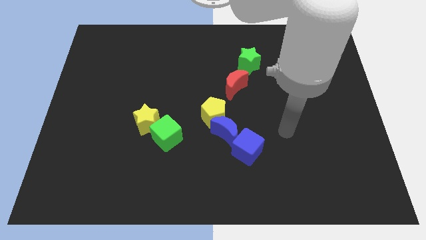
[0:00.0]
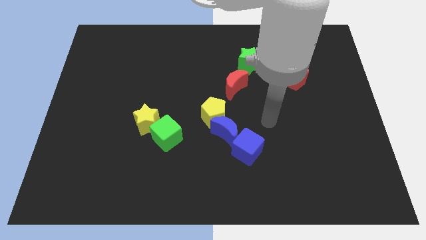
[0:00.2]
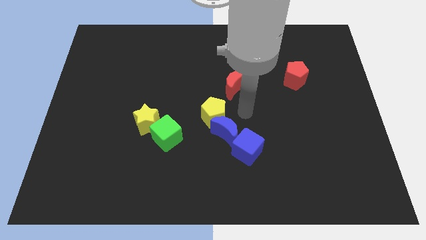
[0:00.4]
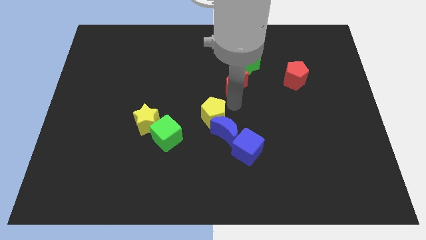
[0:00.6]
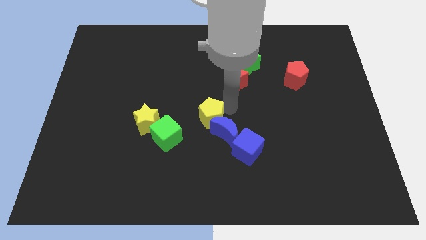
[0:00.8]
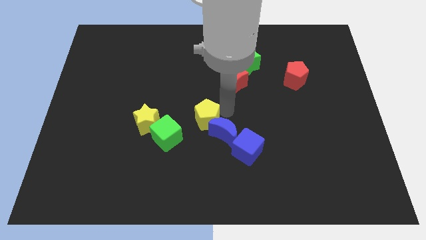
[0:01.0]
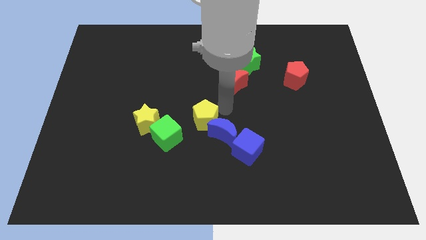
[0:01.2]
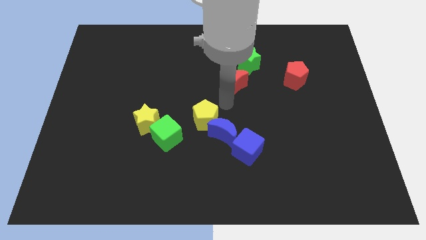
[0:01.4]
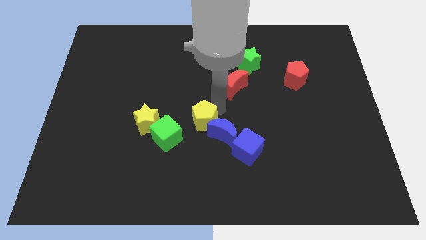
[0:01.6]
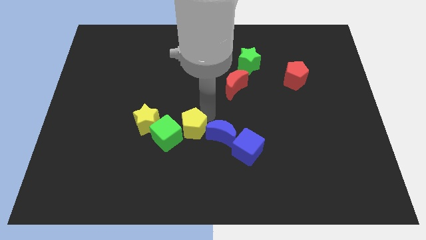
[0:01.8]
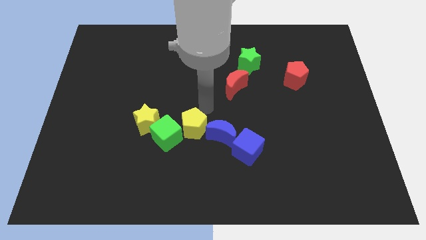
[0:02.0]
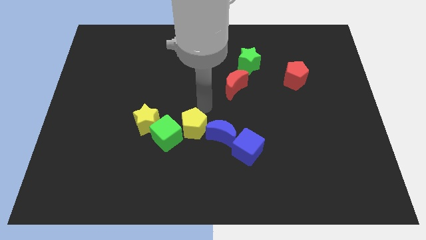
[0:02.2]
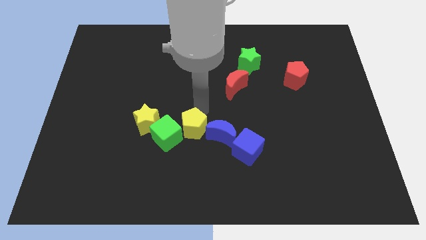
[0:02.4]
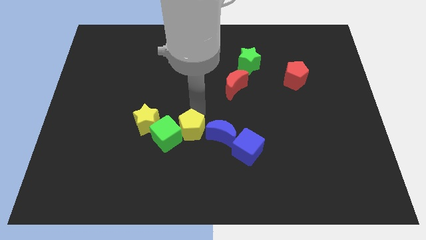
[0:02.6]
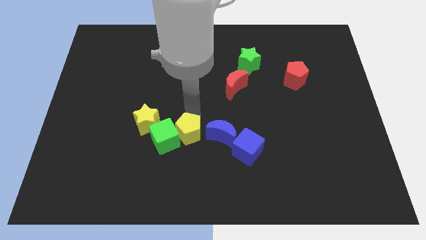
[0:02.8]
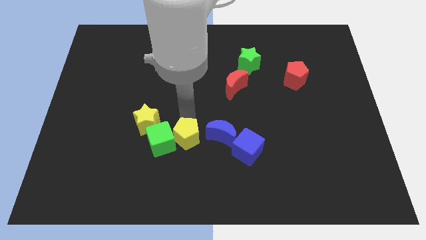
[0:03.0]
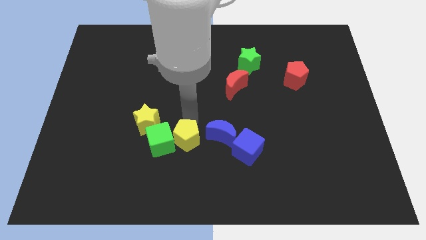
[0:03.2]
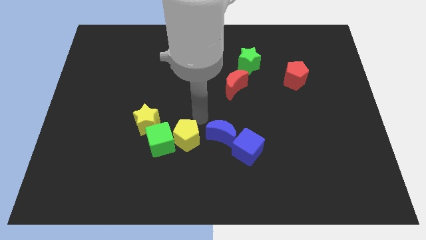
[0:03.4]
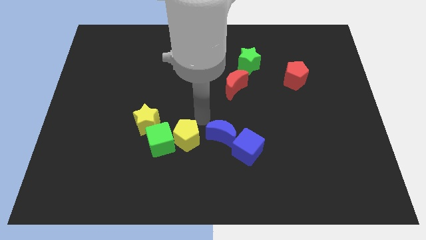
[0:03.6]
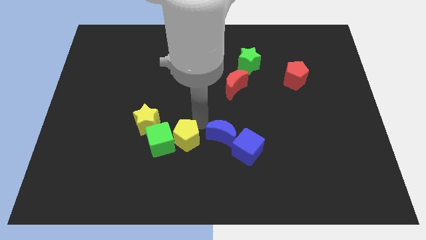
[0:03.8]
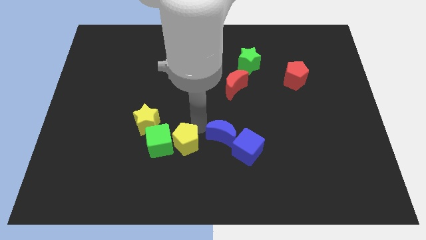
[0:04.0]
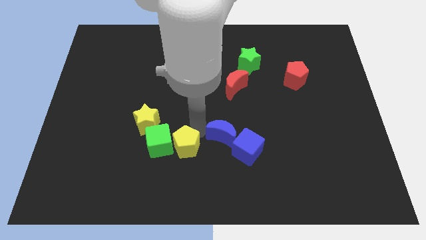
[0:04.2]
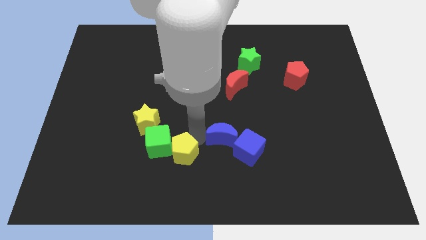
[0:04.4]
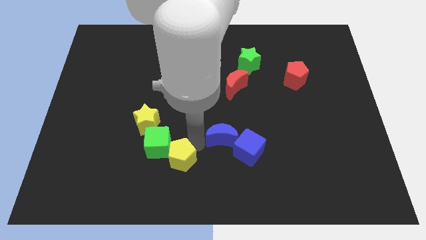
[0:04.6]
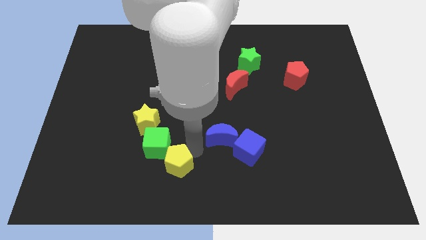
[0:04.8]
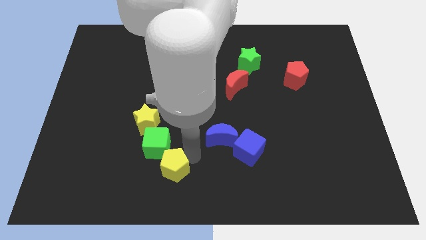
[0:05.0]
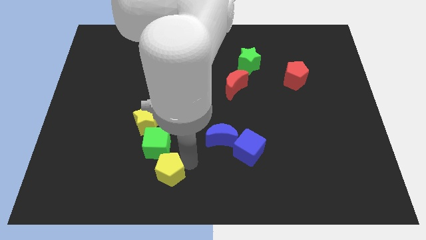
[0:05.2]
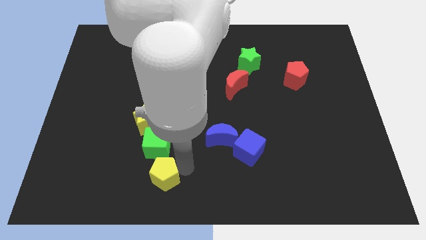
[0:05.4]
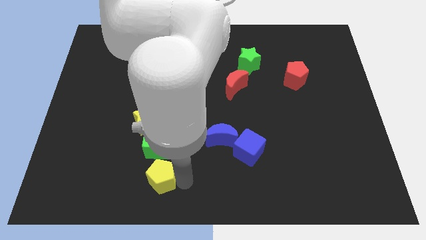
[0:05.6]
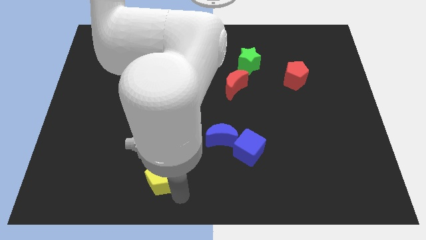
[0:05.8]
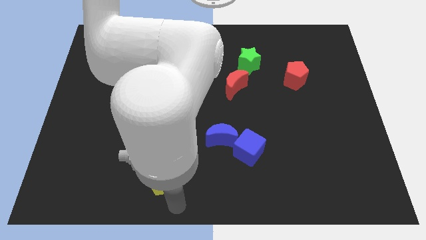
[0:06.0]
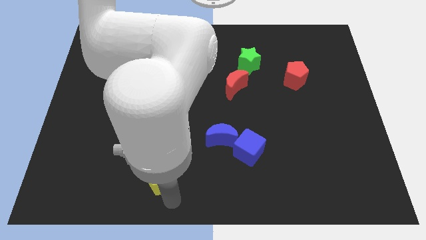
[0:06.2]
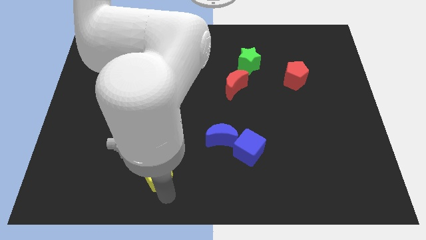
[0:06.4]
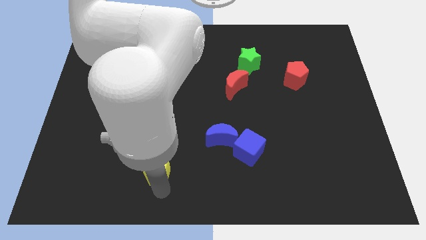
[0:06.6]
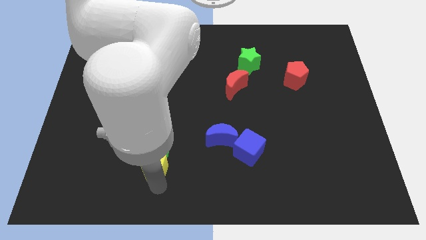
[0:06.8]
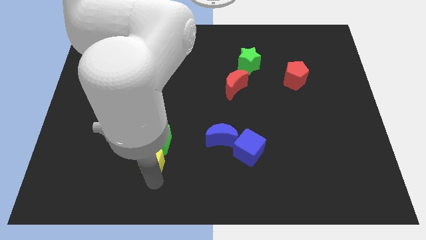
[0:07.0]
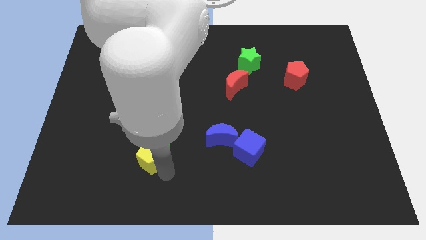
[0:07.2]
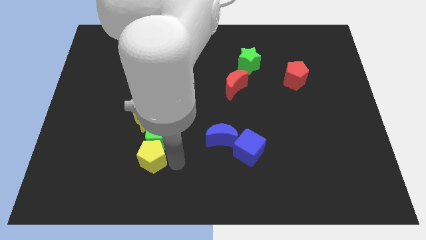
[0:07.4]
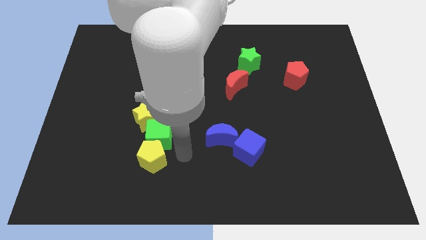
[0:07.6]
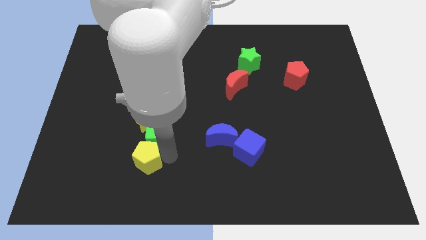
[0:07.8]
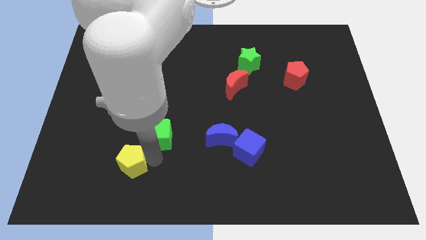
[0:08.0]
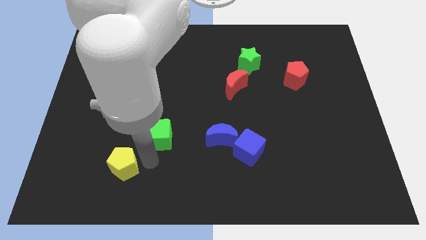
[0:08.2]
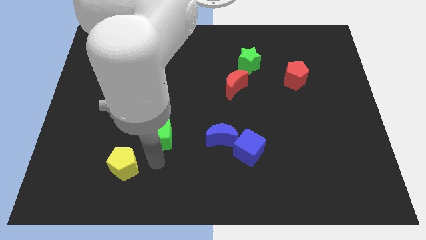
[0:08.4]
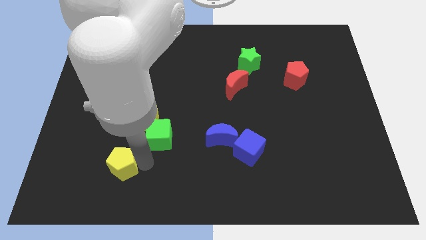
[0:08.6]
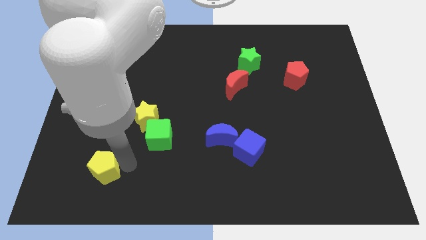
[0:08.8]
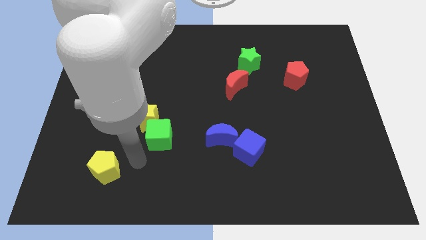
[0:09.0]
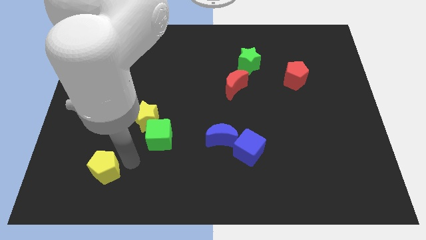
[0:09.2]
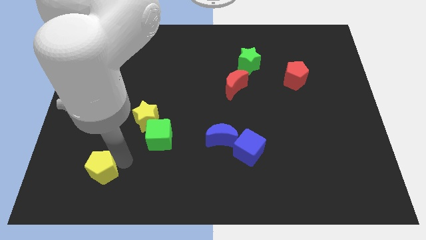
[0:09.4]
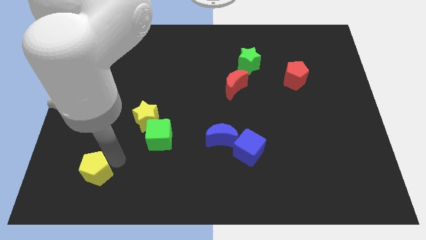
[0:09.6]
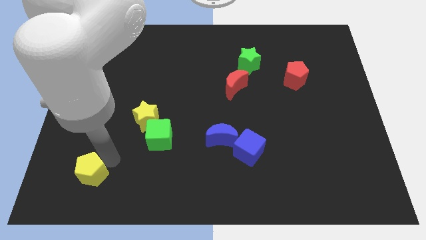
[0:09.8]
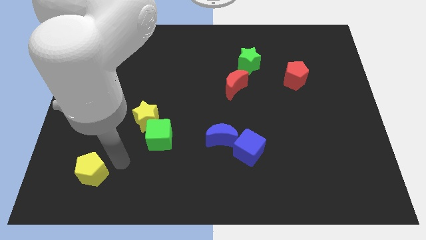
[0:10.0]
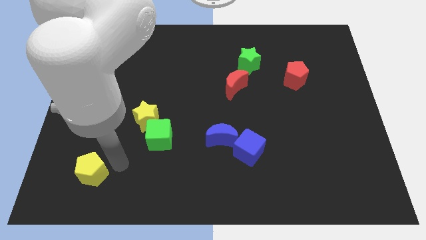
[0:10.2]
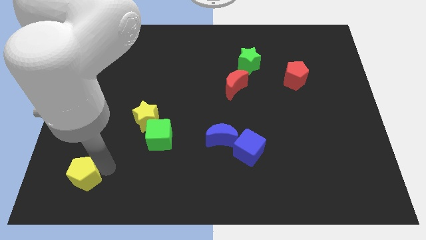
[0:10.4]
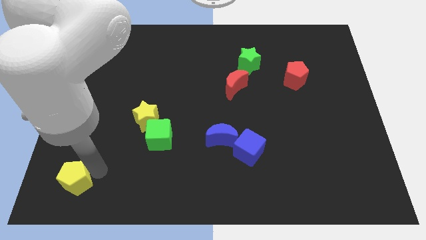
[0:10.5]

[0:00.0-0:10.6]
move the yellow pentagon to the bottom left of the board

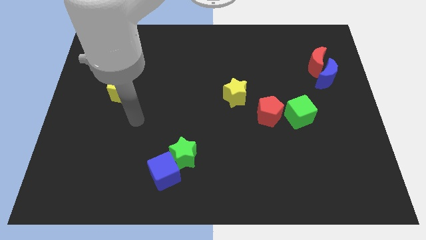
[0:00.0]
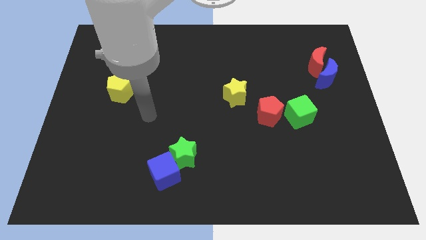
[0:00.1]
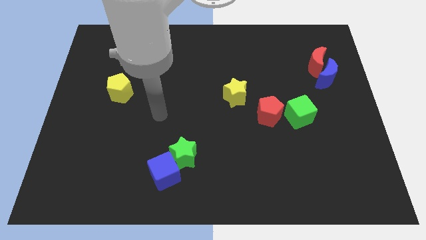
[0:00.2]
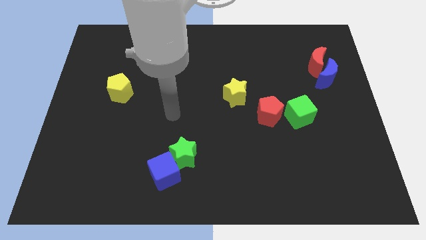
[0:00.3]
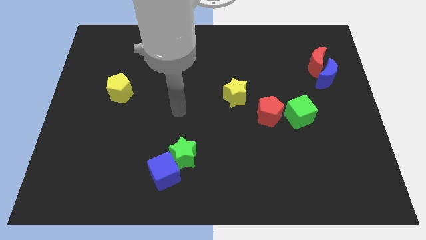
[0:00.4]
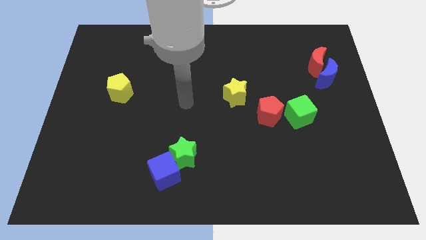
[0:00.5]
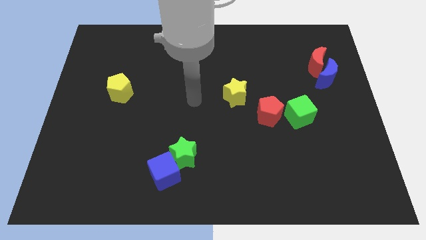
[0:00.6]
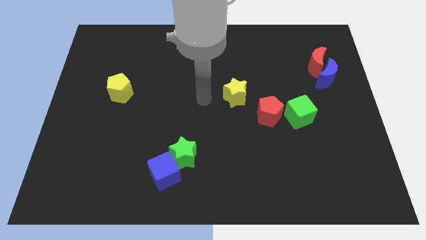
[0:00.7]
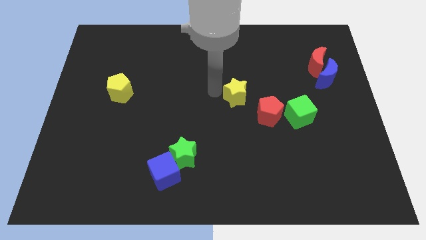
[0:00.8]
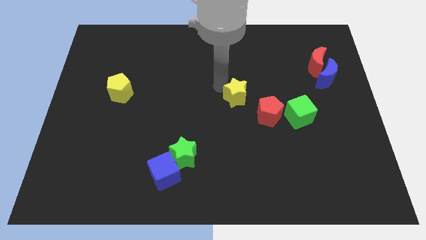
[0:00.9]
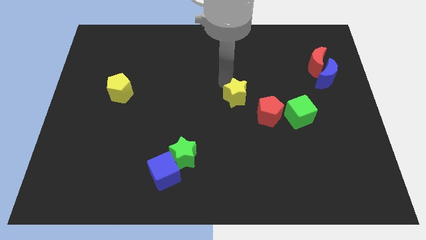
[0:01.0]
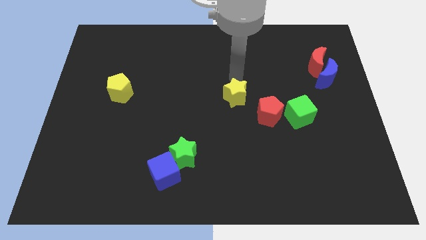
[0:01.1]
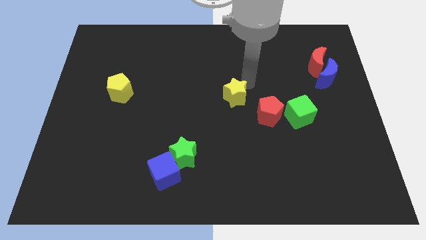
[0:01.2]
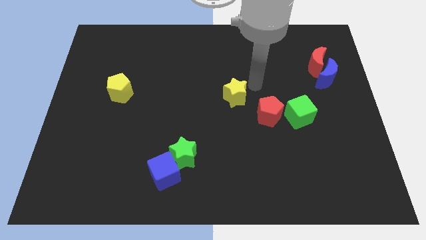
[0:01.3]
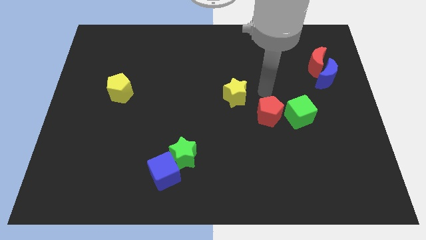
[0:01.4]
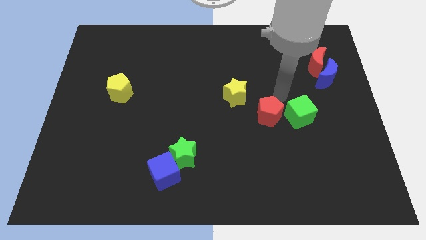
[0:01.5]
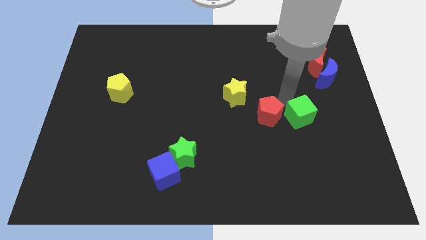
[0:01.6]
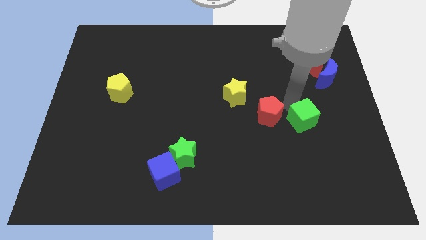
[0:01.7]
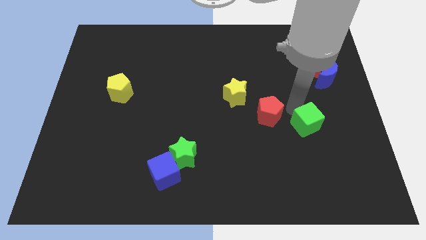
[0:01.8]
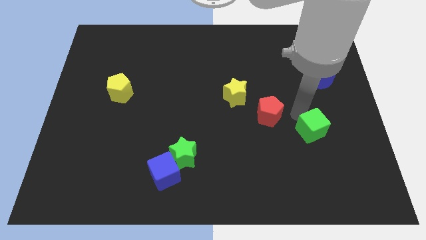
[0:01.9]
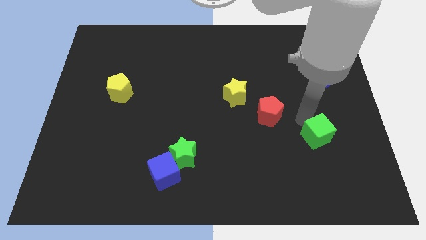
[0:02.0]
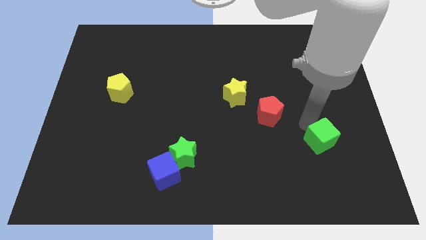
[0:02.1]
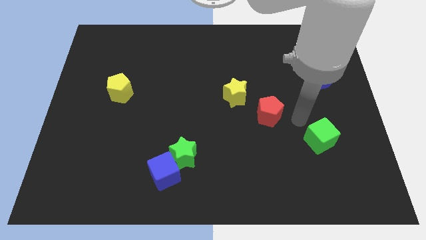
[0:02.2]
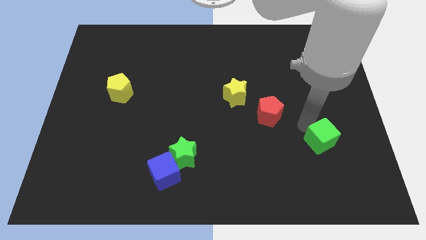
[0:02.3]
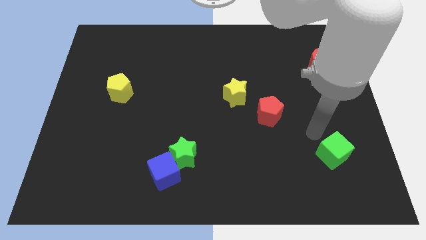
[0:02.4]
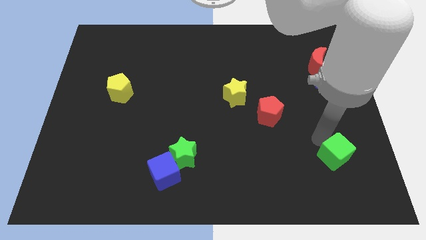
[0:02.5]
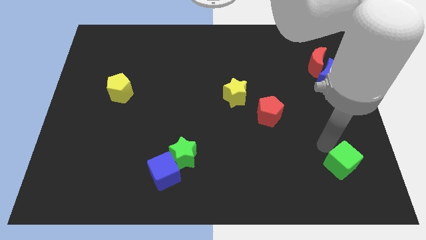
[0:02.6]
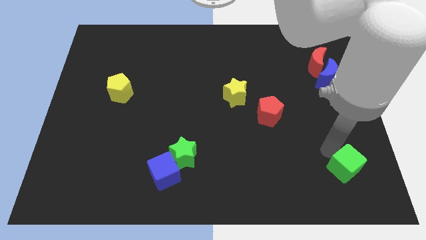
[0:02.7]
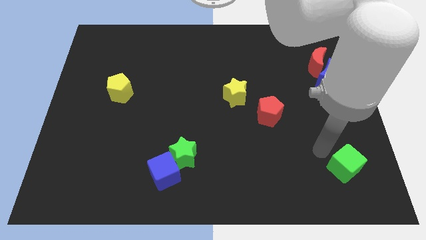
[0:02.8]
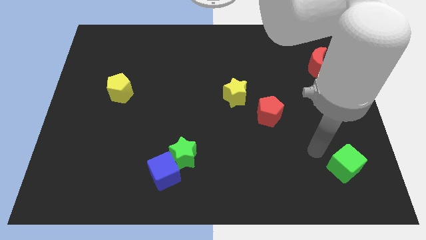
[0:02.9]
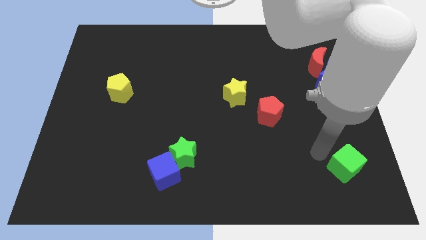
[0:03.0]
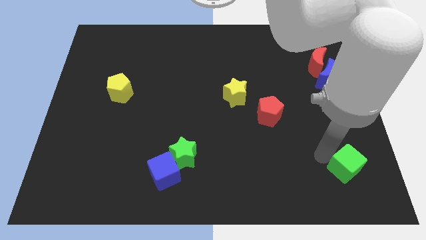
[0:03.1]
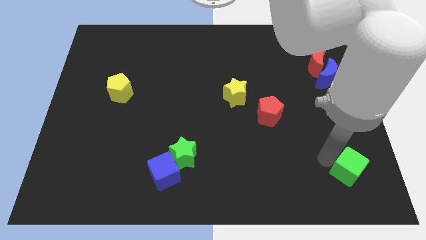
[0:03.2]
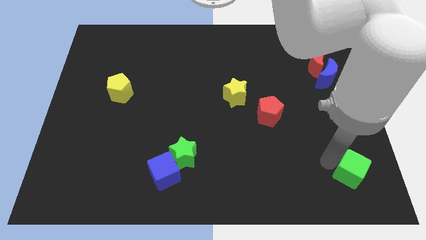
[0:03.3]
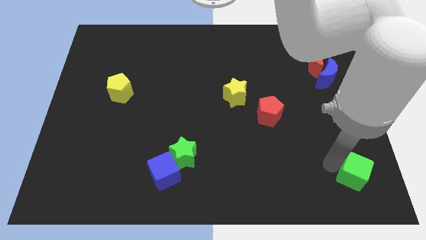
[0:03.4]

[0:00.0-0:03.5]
move the green cube to the bottom right corner
